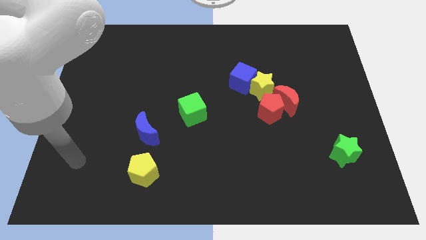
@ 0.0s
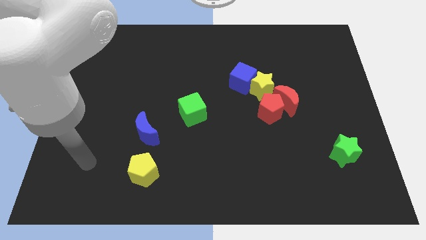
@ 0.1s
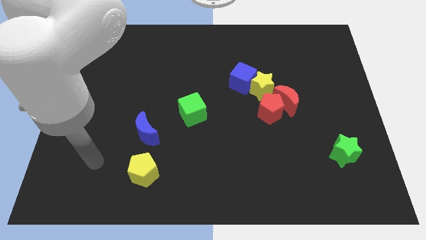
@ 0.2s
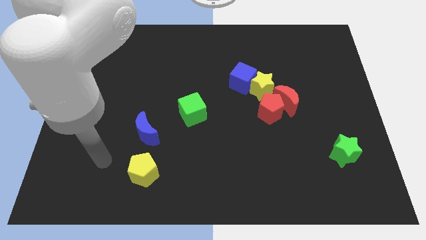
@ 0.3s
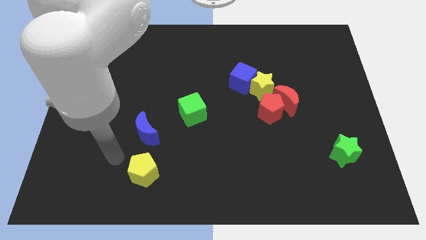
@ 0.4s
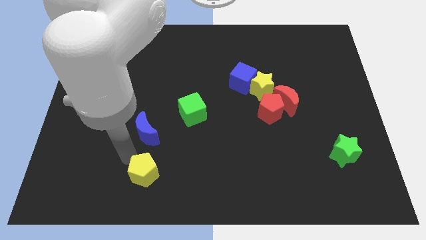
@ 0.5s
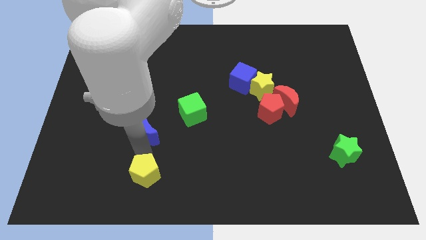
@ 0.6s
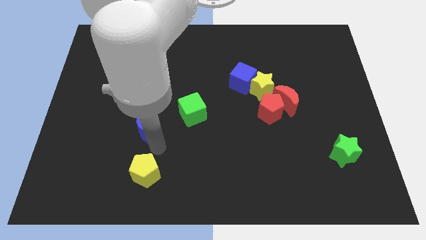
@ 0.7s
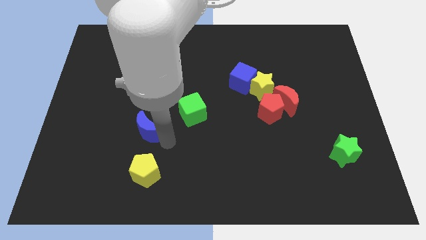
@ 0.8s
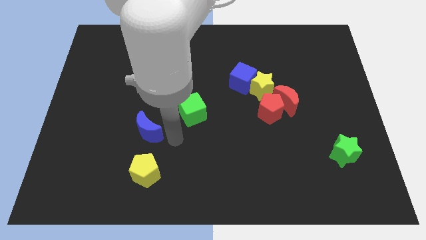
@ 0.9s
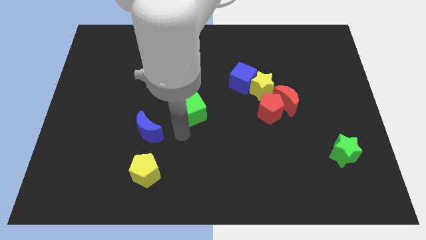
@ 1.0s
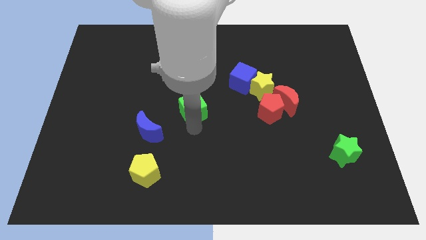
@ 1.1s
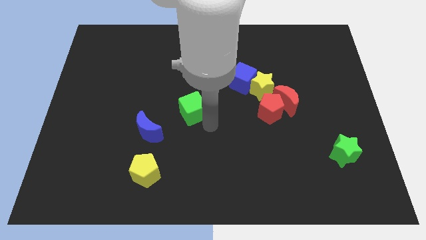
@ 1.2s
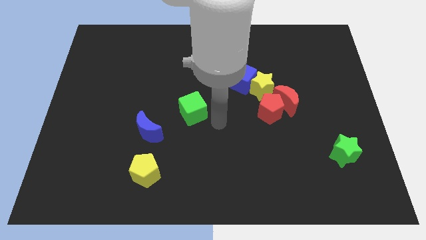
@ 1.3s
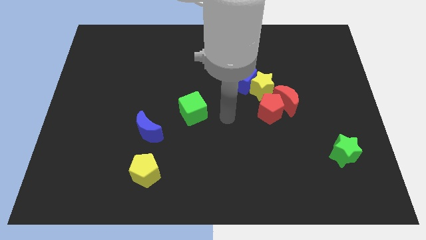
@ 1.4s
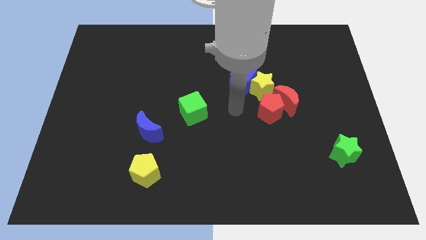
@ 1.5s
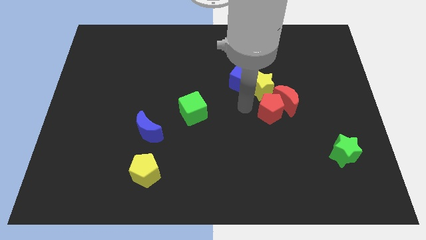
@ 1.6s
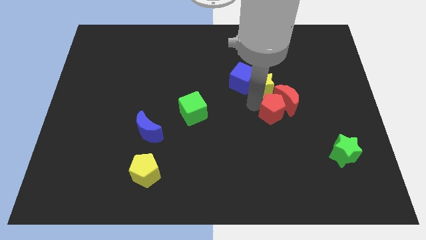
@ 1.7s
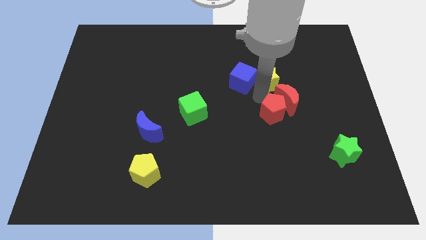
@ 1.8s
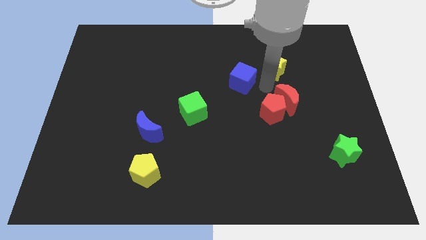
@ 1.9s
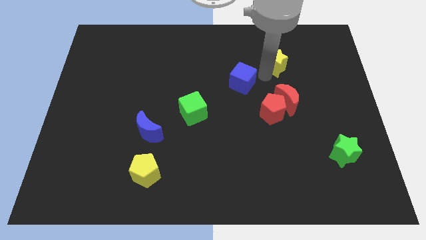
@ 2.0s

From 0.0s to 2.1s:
pull the blue cube apart from the yellow star

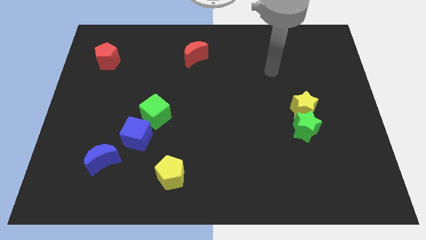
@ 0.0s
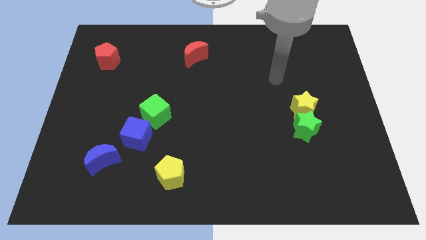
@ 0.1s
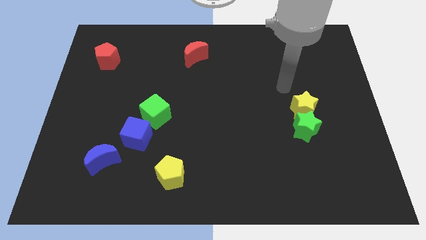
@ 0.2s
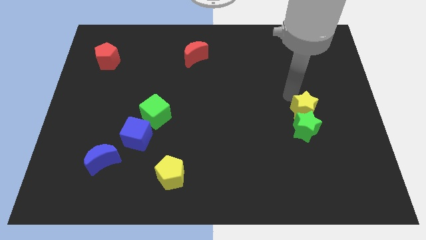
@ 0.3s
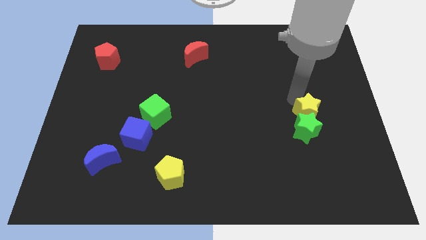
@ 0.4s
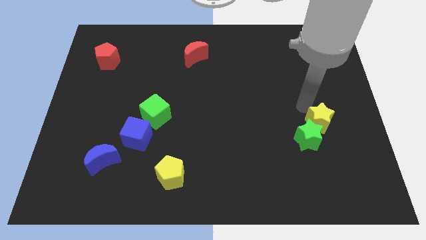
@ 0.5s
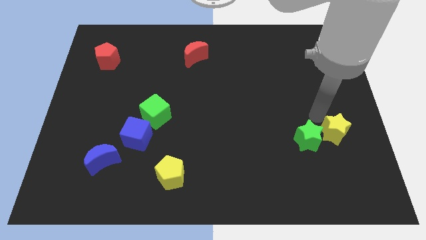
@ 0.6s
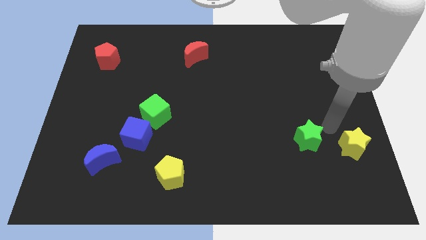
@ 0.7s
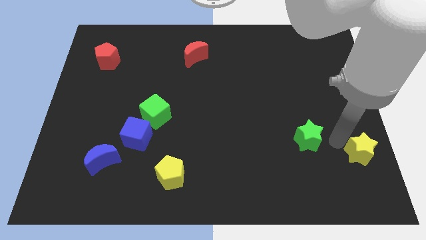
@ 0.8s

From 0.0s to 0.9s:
move the green star away from the yellow star

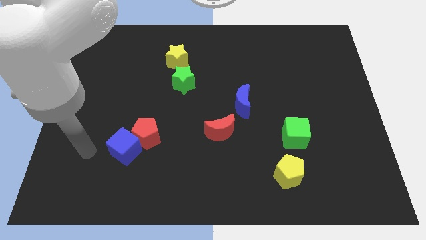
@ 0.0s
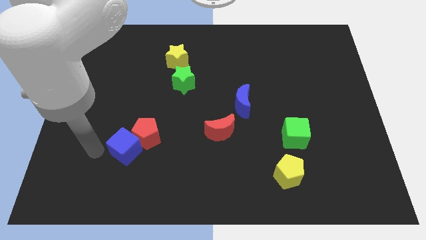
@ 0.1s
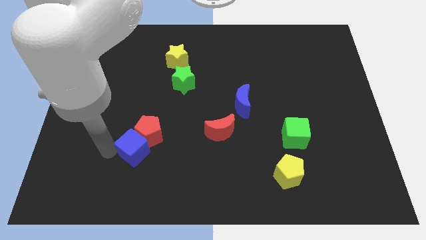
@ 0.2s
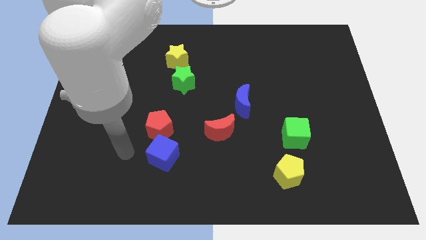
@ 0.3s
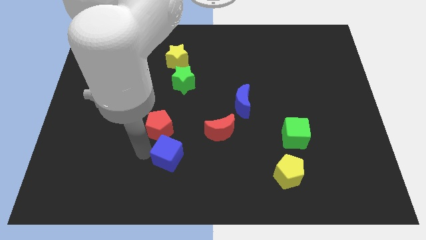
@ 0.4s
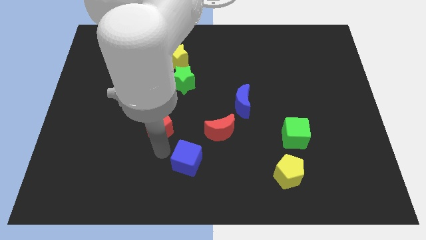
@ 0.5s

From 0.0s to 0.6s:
move the red pentagon away from the blue cube

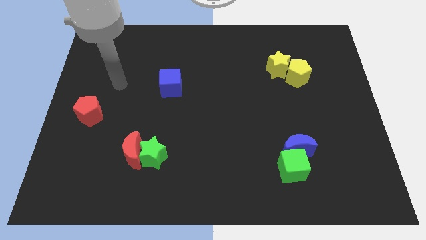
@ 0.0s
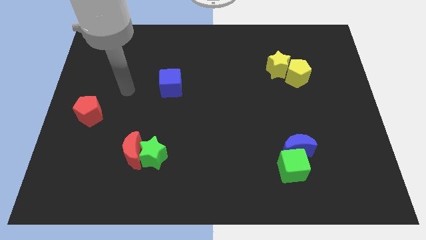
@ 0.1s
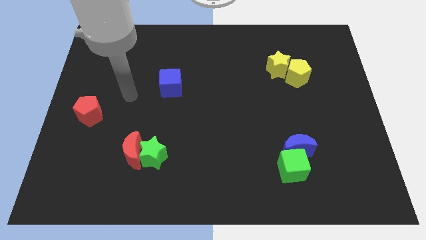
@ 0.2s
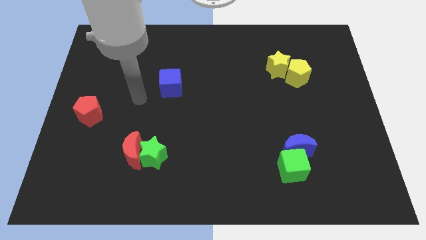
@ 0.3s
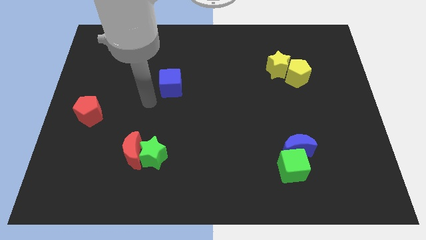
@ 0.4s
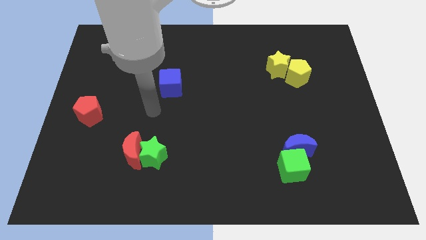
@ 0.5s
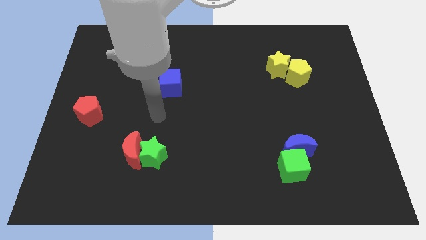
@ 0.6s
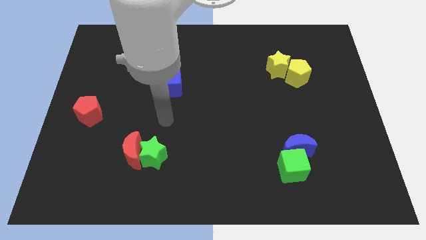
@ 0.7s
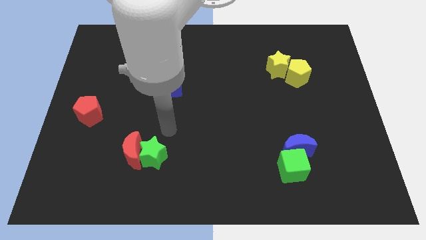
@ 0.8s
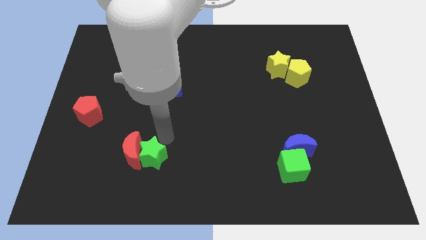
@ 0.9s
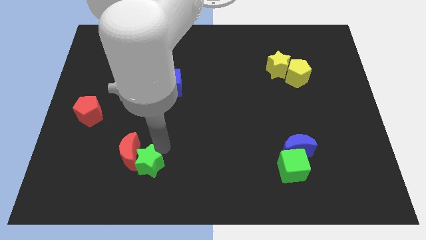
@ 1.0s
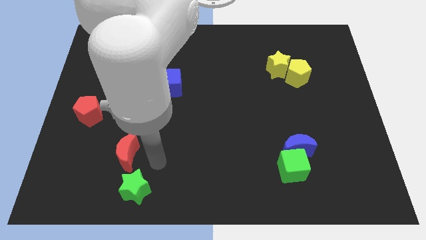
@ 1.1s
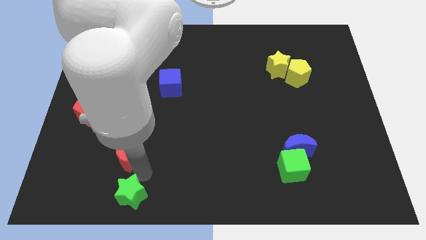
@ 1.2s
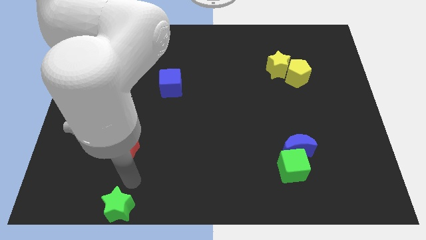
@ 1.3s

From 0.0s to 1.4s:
move the red moon away from the green star

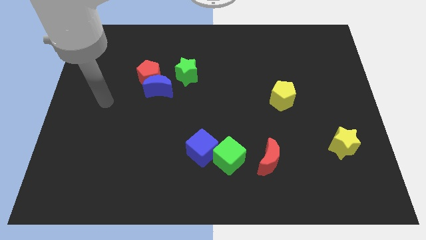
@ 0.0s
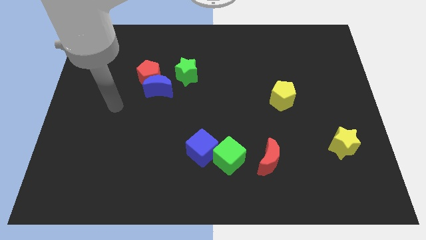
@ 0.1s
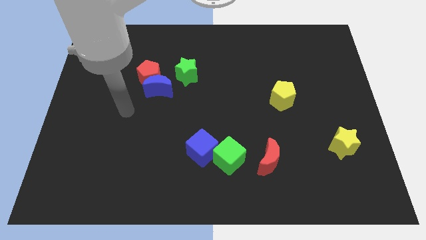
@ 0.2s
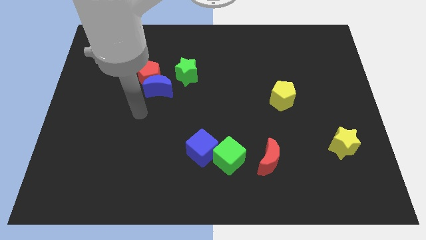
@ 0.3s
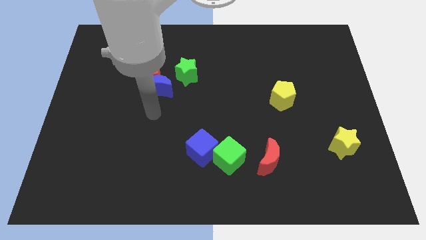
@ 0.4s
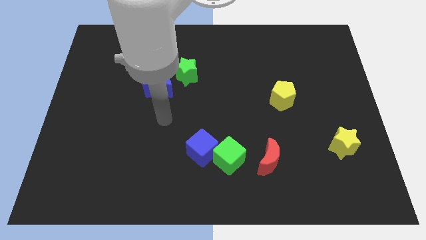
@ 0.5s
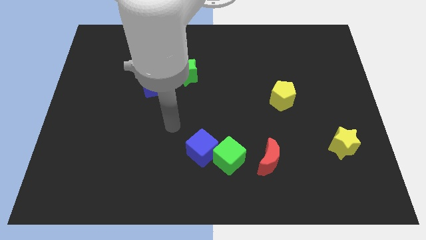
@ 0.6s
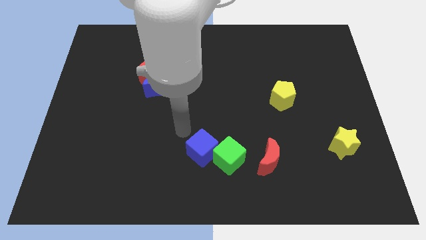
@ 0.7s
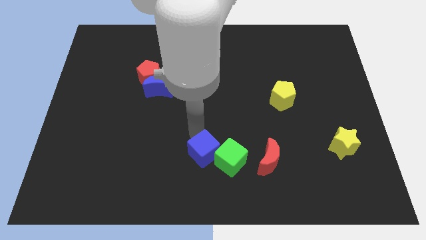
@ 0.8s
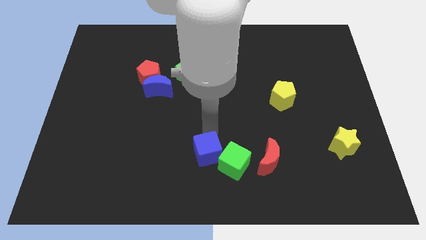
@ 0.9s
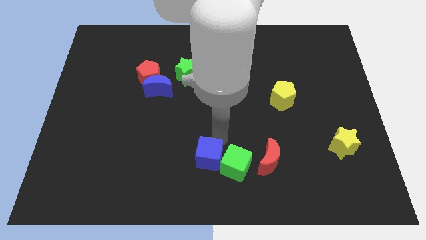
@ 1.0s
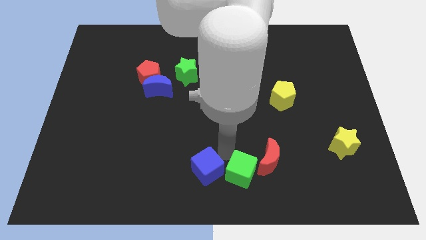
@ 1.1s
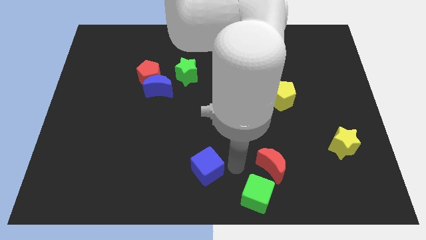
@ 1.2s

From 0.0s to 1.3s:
pull the blue cube apart from the green cube

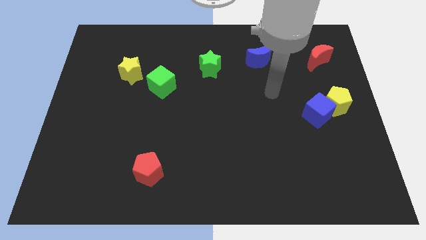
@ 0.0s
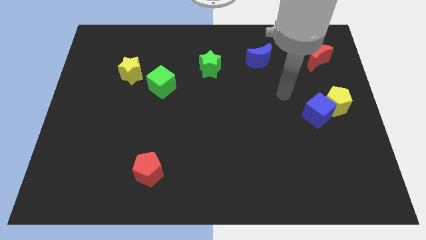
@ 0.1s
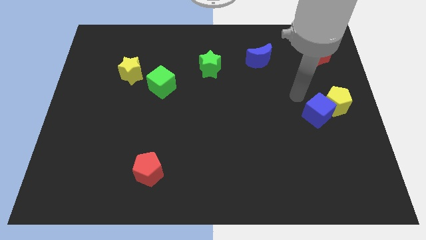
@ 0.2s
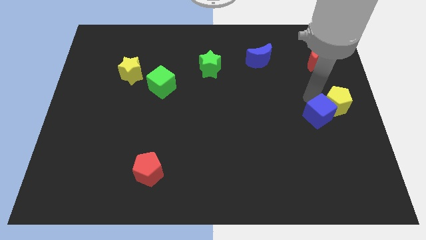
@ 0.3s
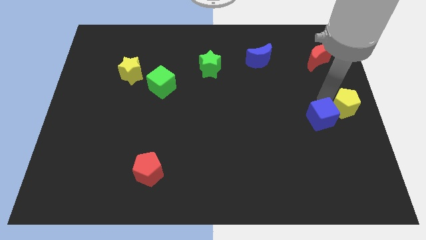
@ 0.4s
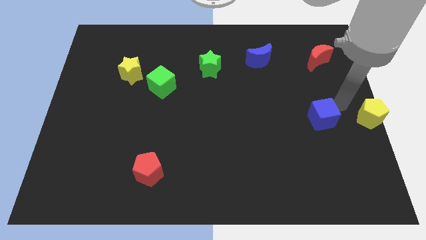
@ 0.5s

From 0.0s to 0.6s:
pull the blue cube apart from the yellow pentagon

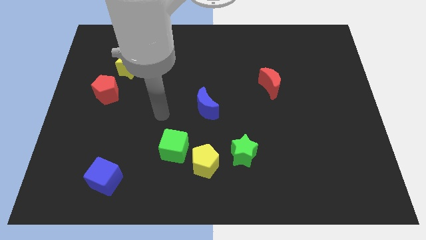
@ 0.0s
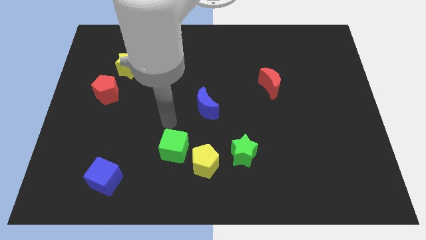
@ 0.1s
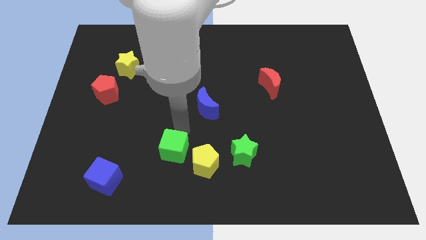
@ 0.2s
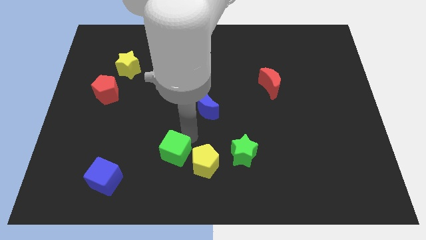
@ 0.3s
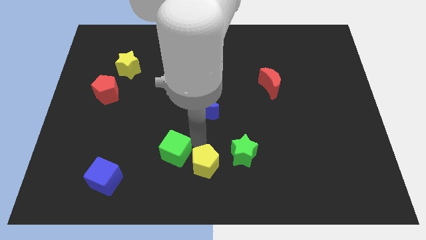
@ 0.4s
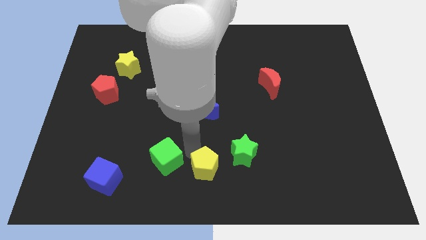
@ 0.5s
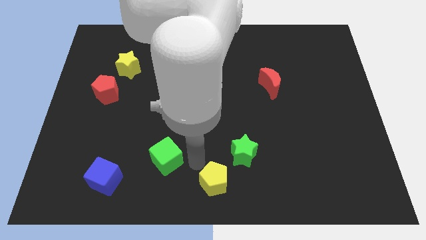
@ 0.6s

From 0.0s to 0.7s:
separate the green cube from the yellow pentagon

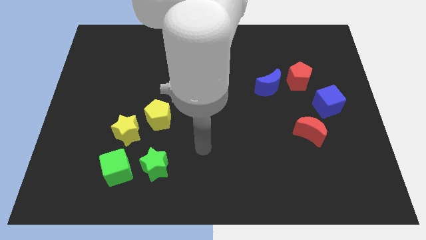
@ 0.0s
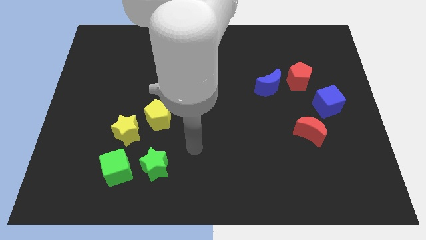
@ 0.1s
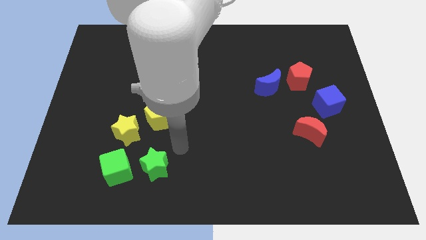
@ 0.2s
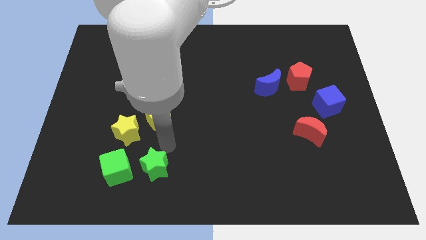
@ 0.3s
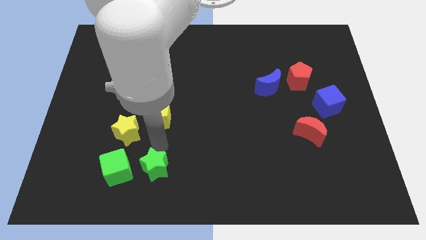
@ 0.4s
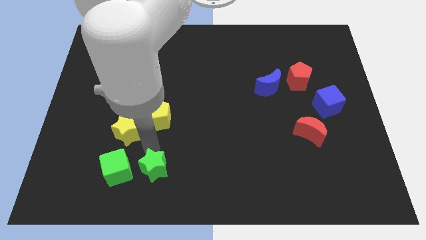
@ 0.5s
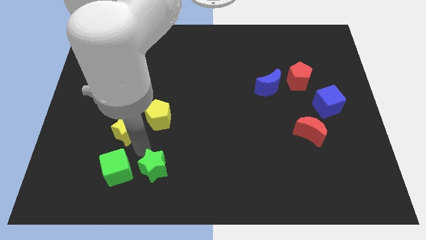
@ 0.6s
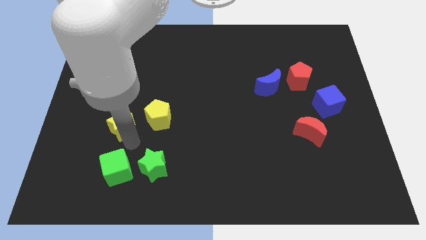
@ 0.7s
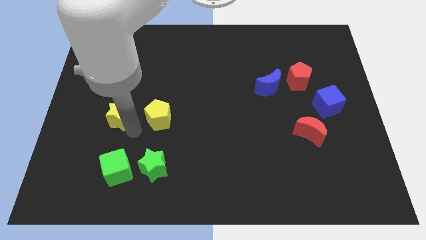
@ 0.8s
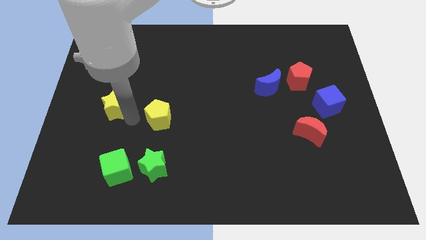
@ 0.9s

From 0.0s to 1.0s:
move the yellow pentagon away from the yellow star

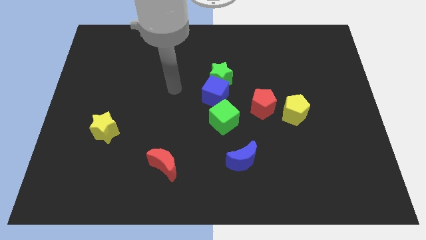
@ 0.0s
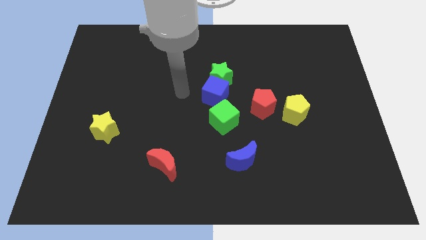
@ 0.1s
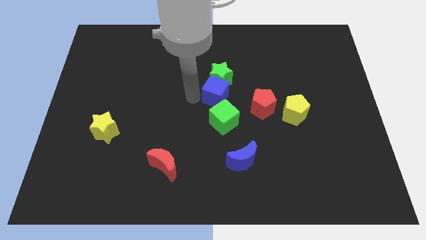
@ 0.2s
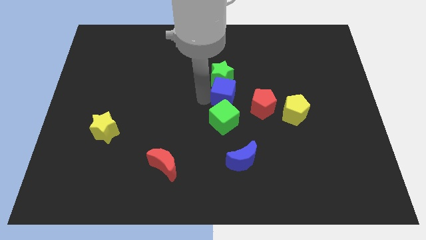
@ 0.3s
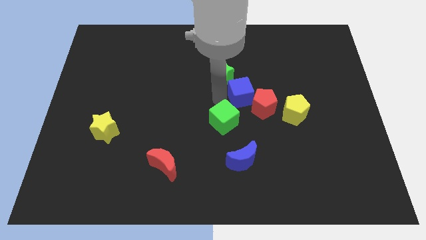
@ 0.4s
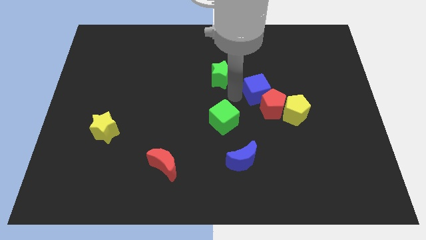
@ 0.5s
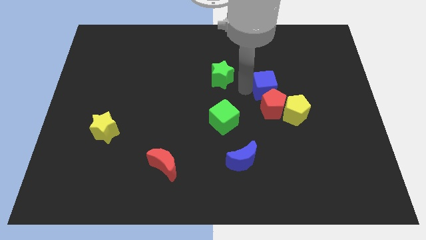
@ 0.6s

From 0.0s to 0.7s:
pull the green star apart from the blue cube
